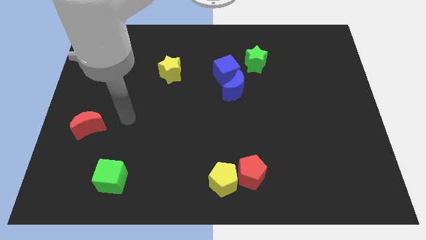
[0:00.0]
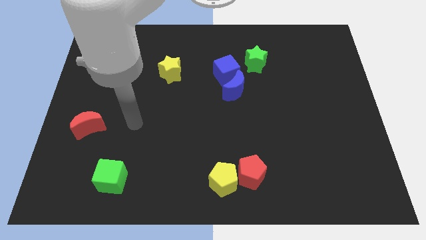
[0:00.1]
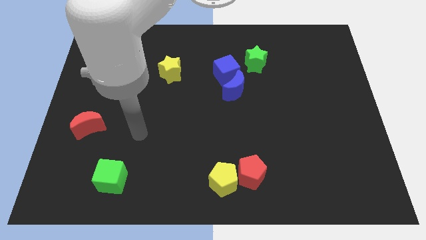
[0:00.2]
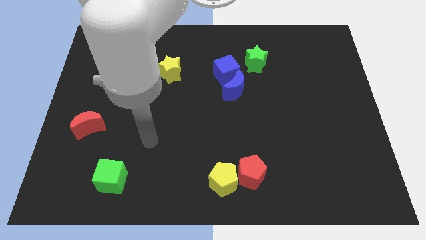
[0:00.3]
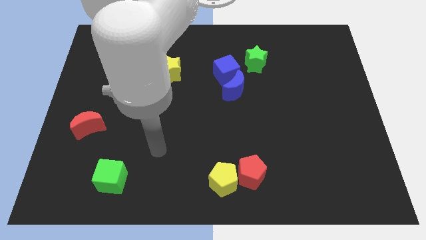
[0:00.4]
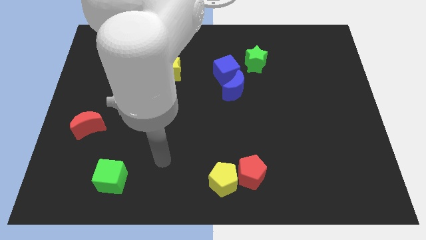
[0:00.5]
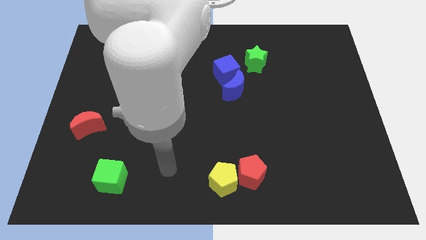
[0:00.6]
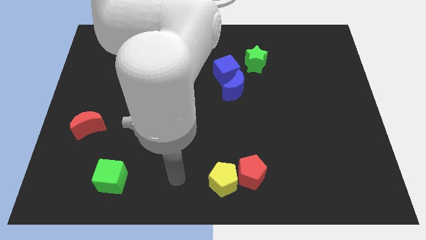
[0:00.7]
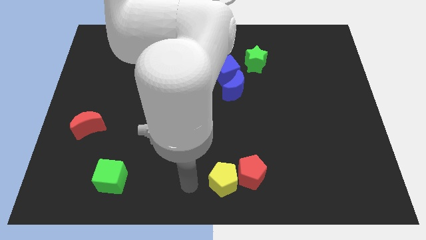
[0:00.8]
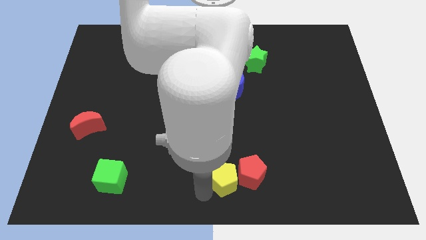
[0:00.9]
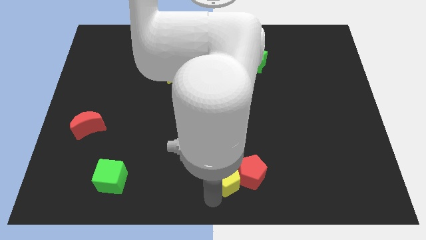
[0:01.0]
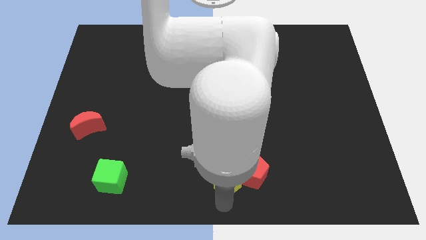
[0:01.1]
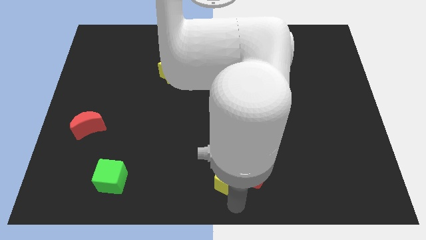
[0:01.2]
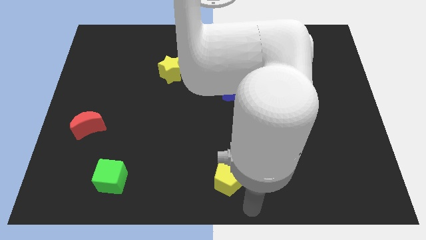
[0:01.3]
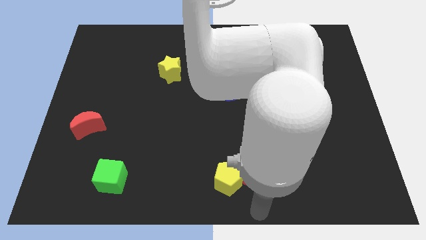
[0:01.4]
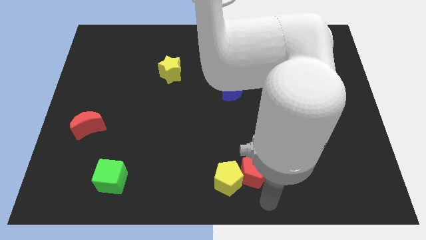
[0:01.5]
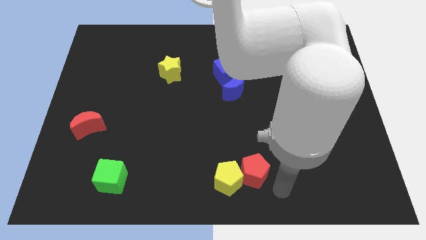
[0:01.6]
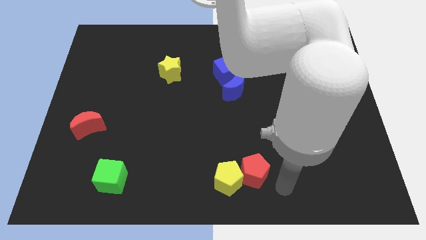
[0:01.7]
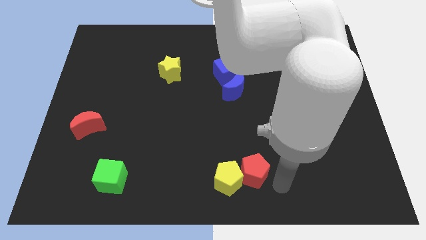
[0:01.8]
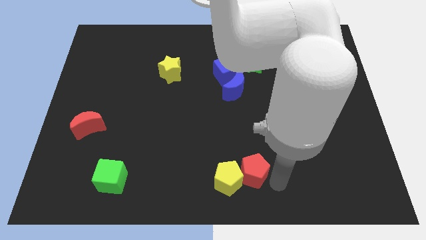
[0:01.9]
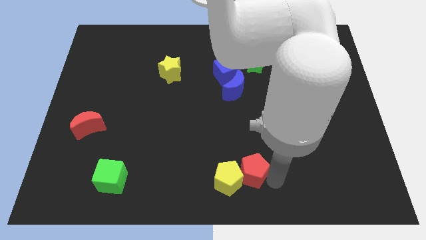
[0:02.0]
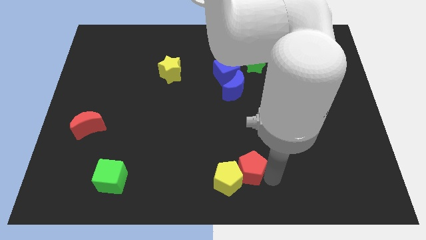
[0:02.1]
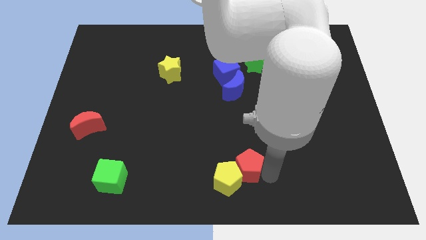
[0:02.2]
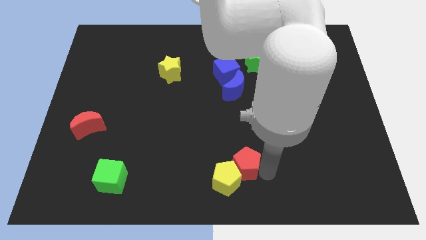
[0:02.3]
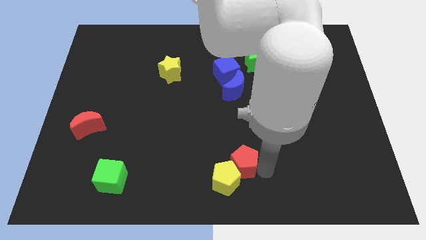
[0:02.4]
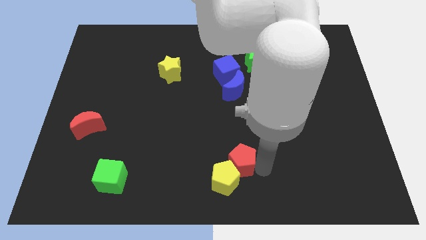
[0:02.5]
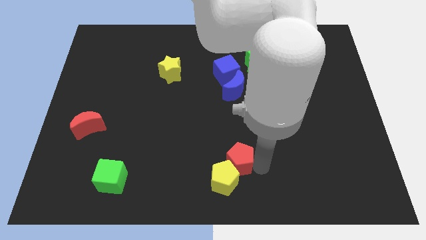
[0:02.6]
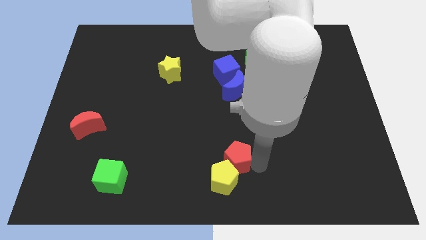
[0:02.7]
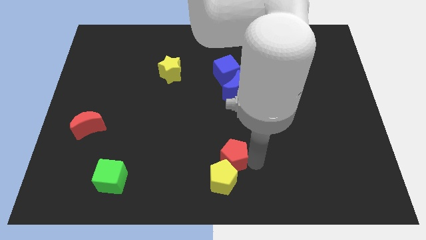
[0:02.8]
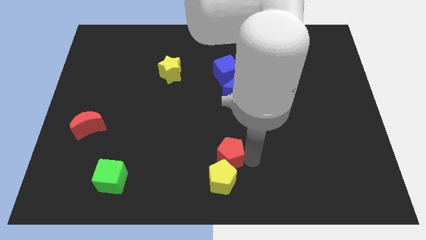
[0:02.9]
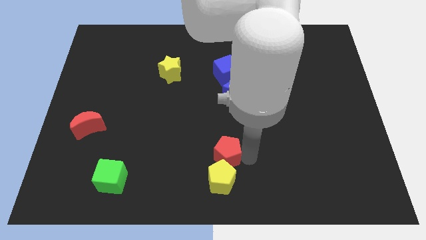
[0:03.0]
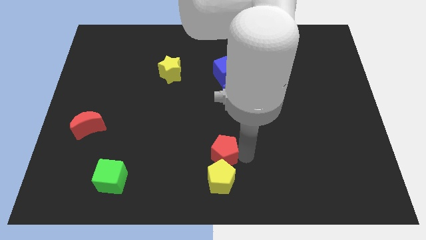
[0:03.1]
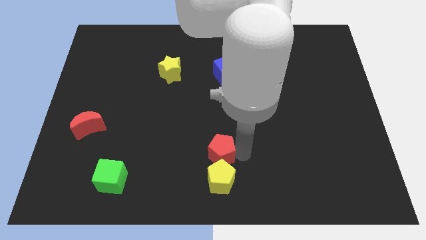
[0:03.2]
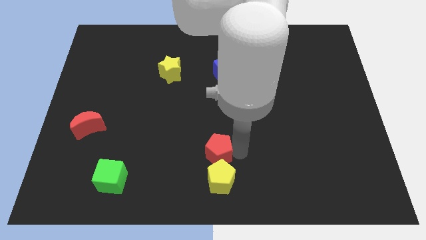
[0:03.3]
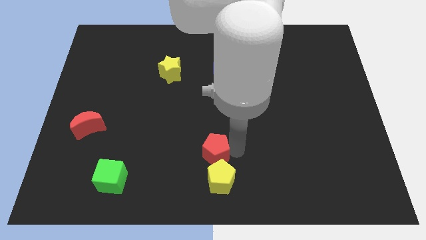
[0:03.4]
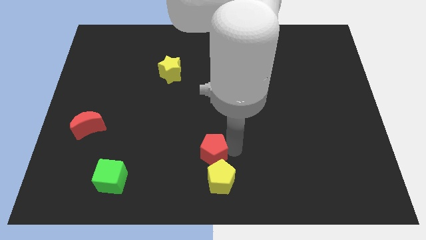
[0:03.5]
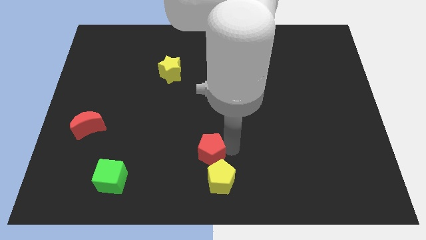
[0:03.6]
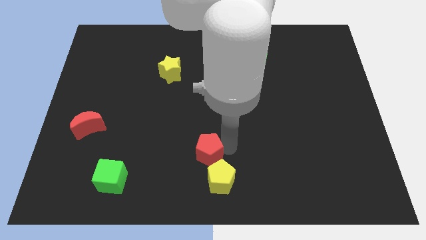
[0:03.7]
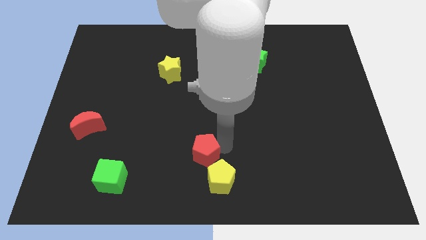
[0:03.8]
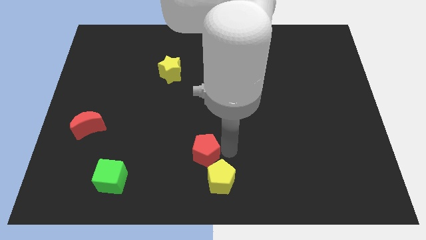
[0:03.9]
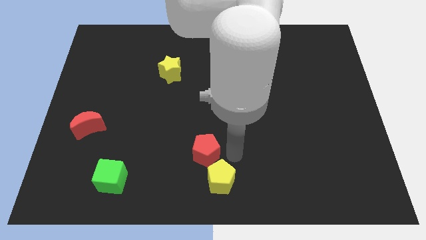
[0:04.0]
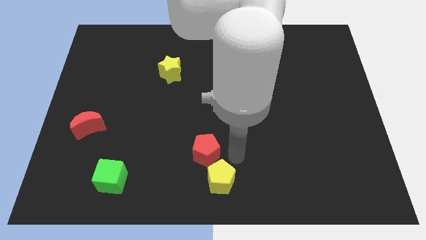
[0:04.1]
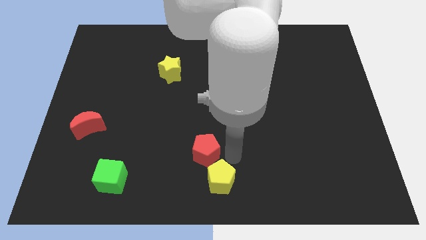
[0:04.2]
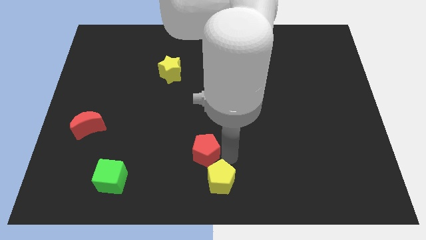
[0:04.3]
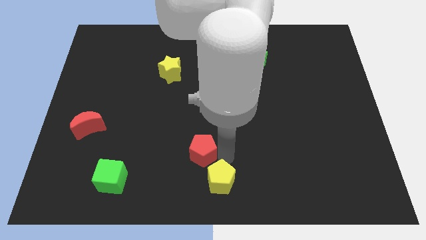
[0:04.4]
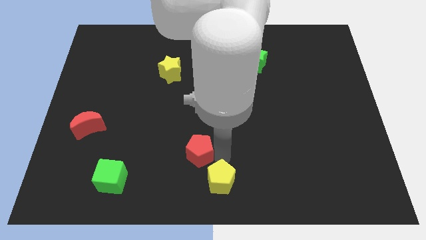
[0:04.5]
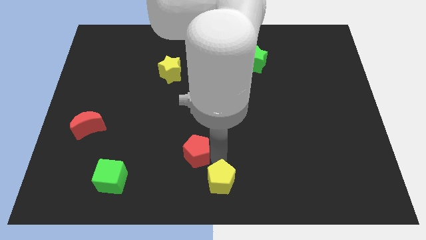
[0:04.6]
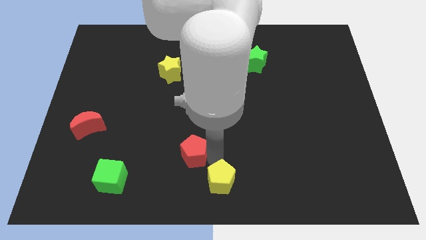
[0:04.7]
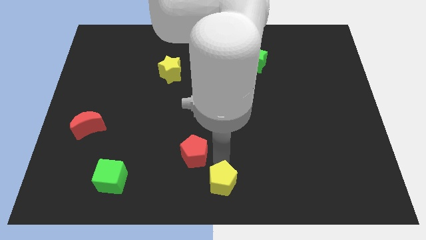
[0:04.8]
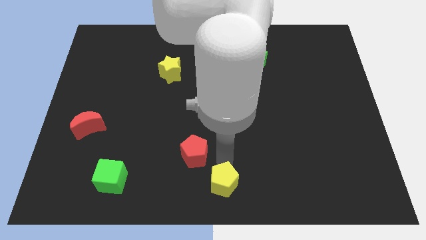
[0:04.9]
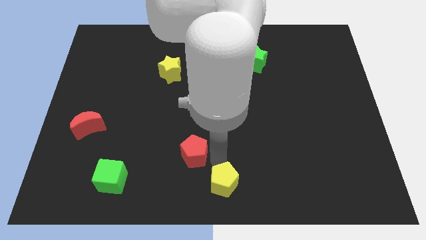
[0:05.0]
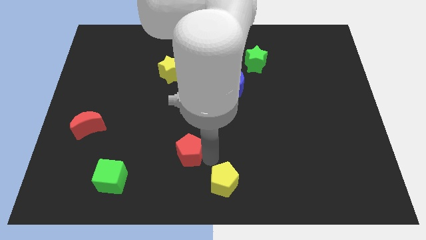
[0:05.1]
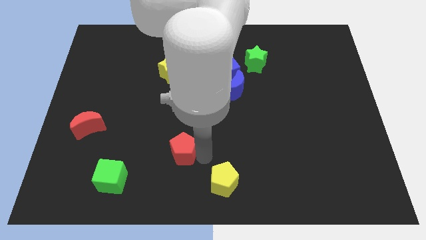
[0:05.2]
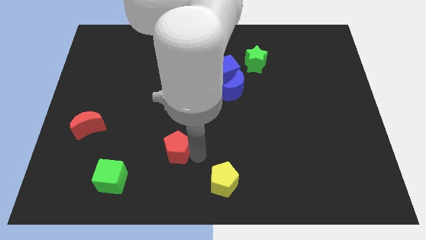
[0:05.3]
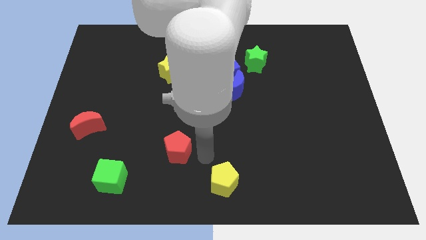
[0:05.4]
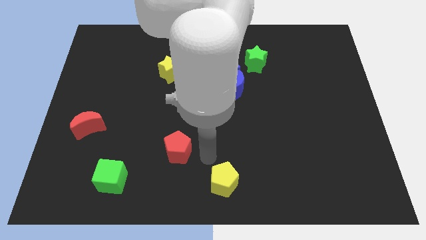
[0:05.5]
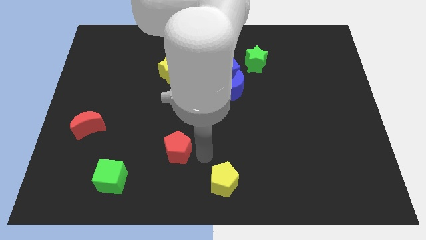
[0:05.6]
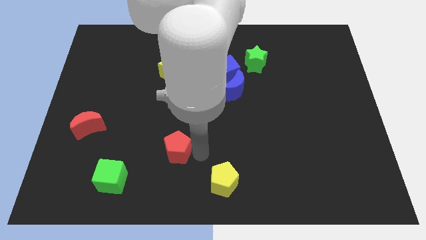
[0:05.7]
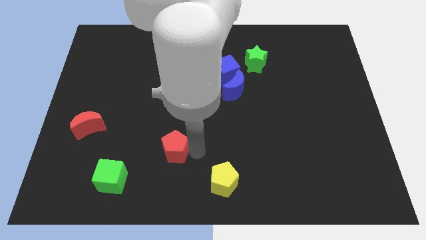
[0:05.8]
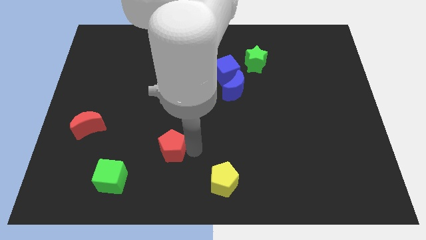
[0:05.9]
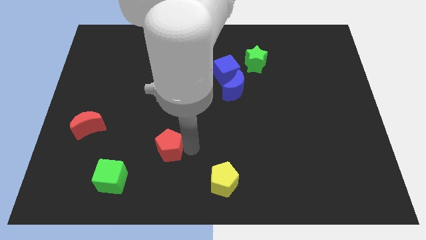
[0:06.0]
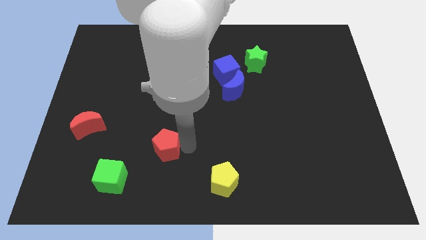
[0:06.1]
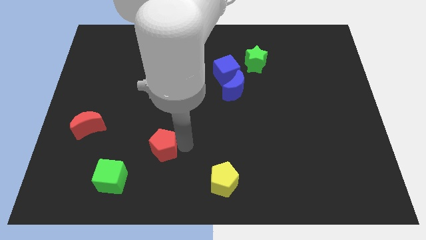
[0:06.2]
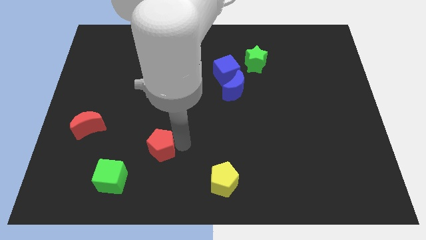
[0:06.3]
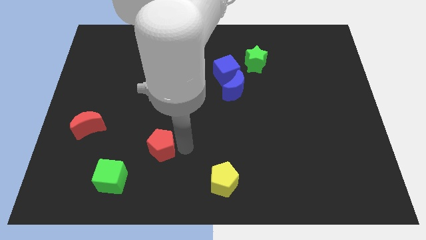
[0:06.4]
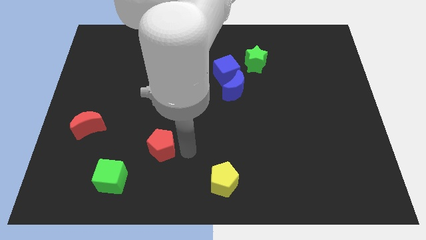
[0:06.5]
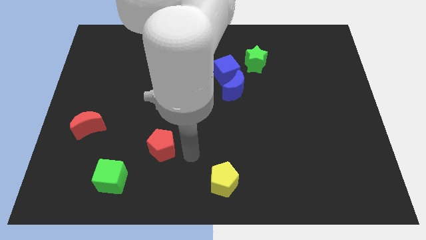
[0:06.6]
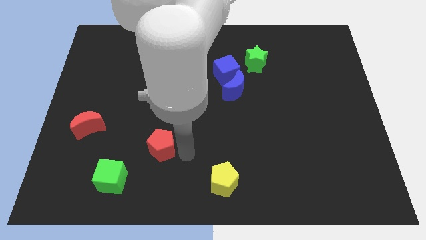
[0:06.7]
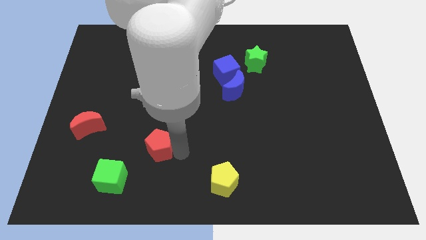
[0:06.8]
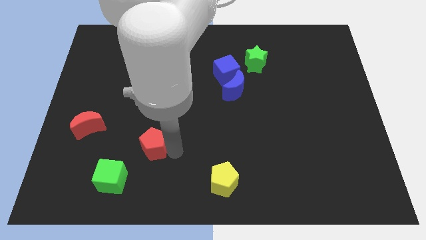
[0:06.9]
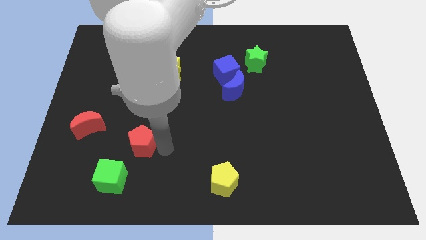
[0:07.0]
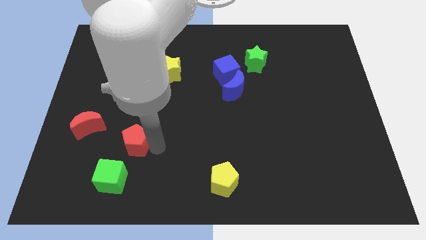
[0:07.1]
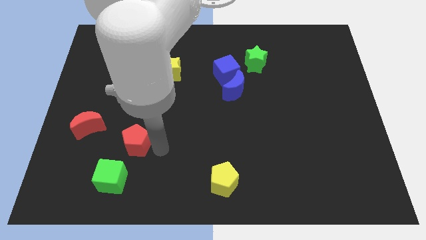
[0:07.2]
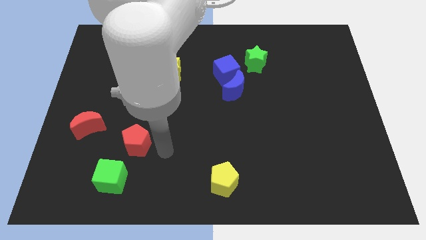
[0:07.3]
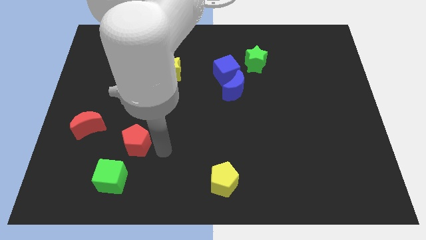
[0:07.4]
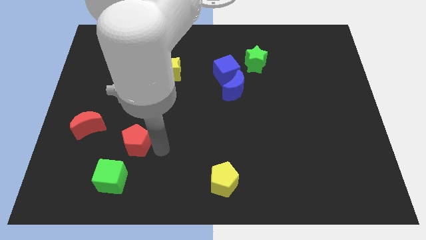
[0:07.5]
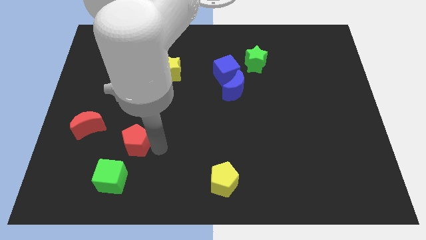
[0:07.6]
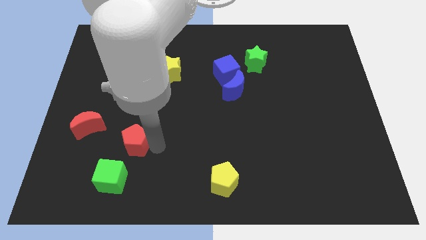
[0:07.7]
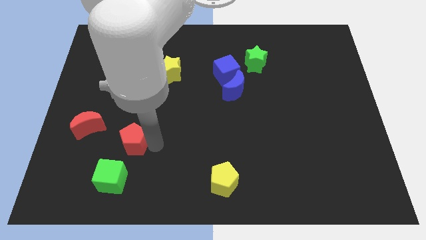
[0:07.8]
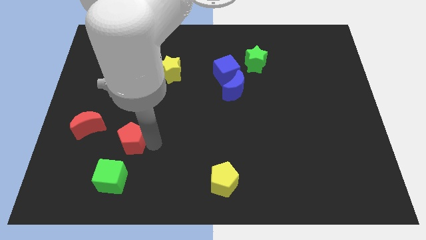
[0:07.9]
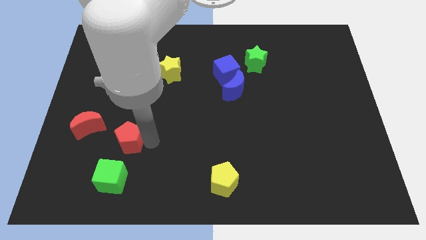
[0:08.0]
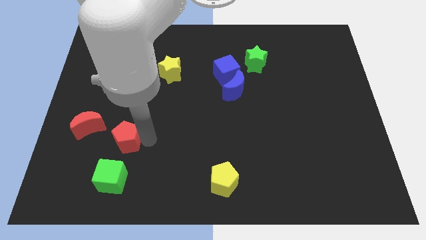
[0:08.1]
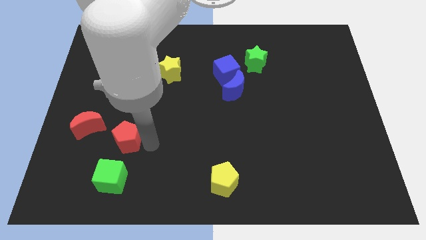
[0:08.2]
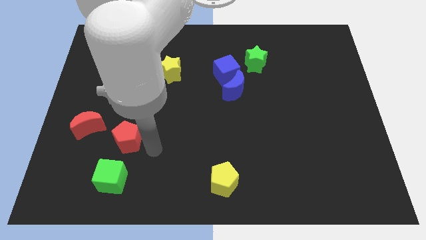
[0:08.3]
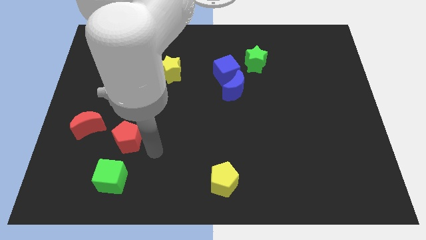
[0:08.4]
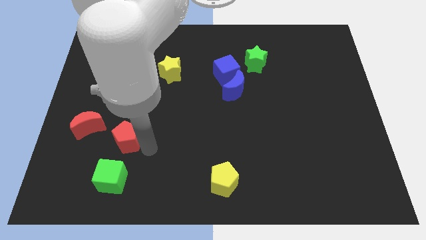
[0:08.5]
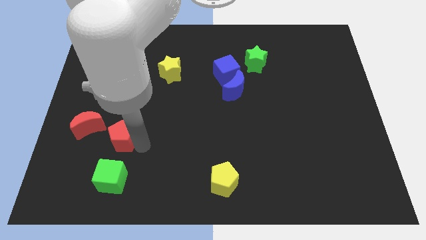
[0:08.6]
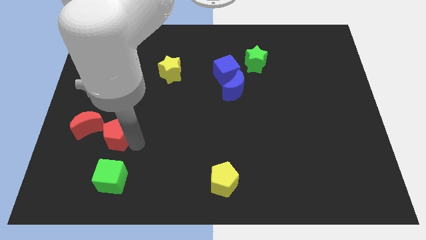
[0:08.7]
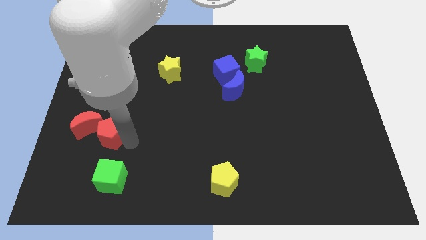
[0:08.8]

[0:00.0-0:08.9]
push the red pentagon towards the red moon
